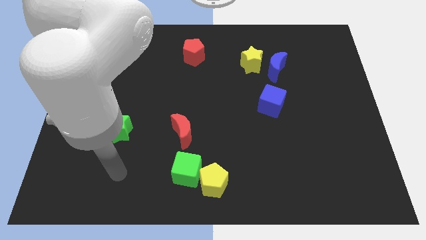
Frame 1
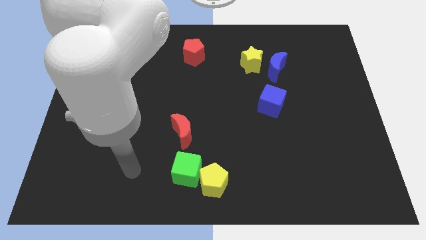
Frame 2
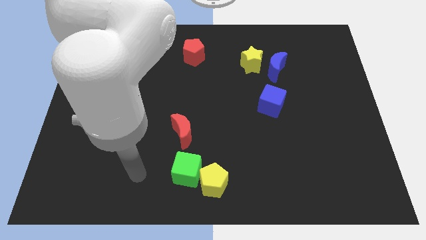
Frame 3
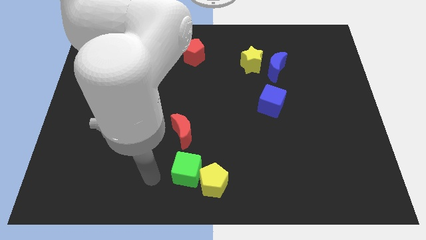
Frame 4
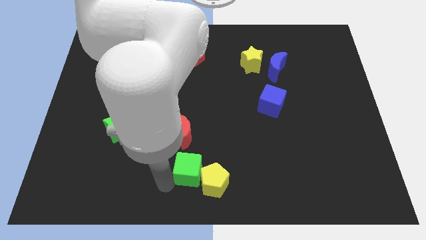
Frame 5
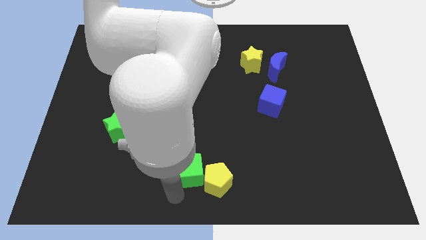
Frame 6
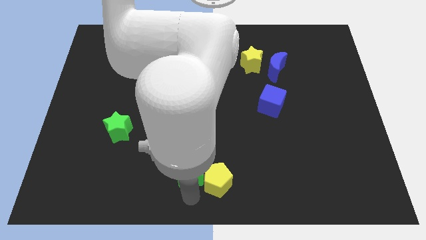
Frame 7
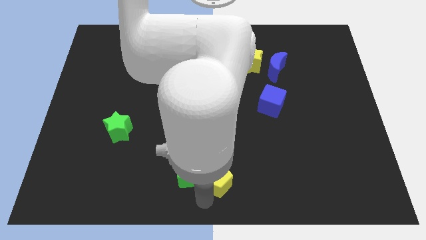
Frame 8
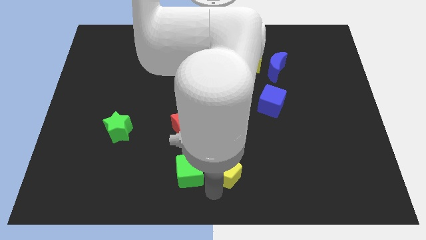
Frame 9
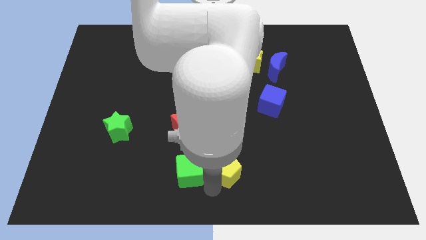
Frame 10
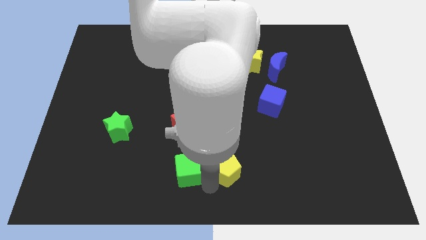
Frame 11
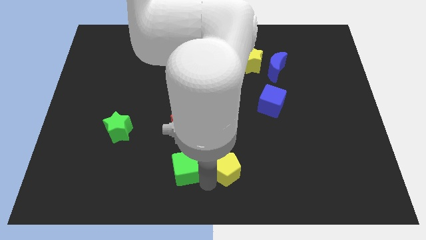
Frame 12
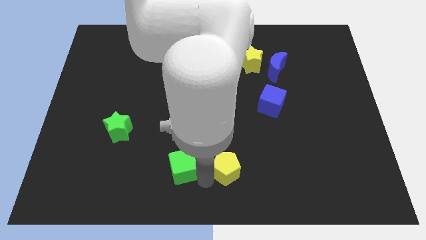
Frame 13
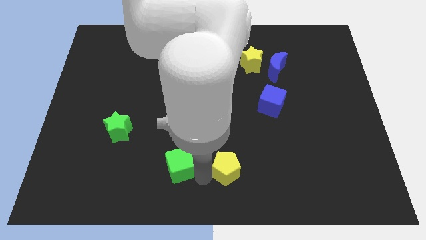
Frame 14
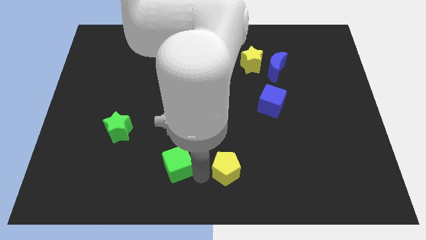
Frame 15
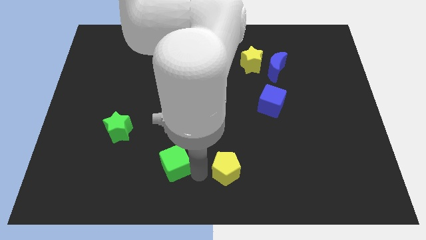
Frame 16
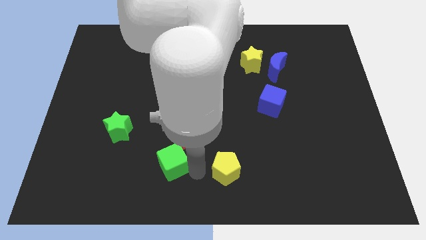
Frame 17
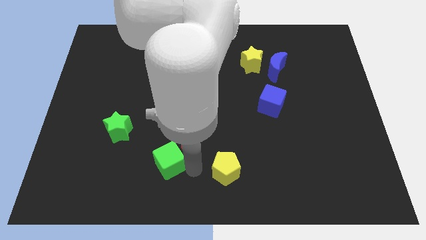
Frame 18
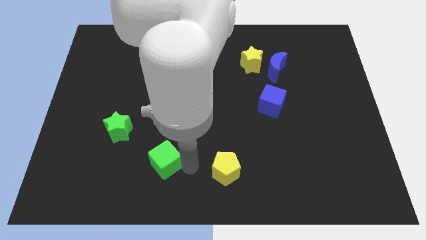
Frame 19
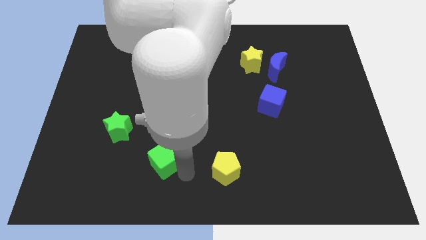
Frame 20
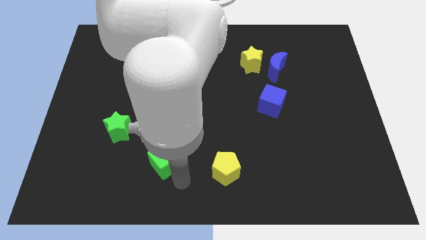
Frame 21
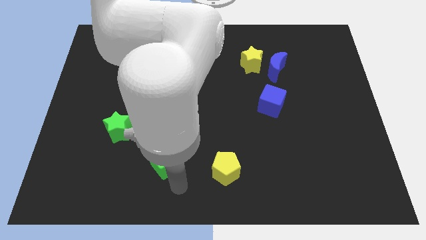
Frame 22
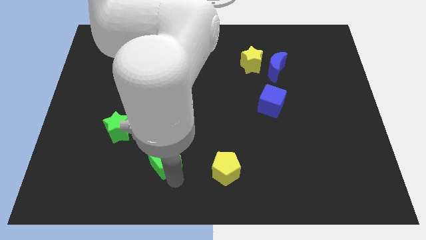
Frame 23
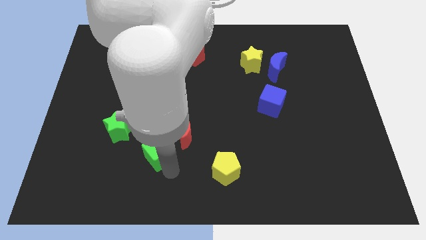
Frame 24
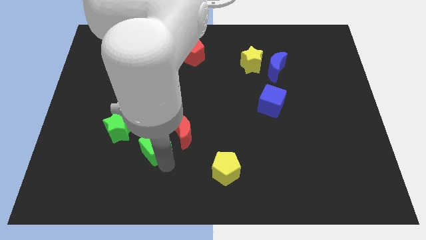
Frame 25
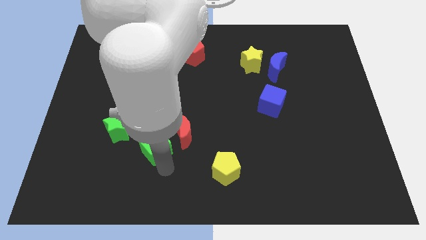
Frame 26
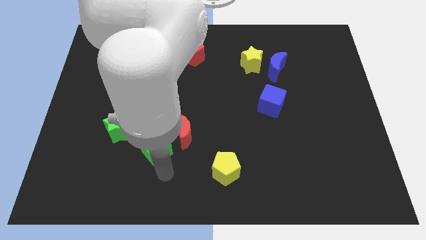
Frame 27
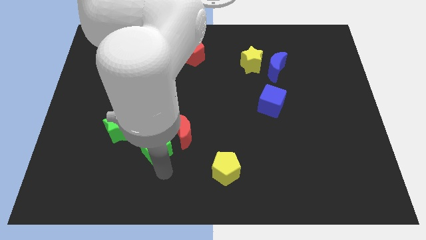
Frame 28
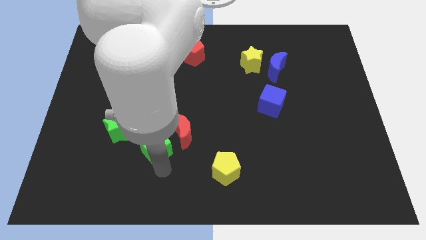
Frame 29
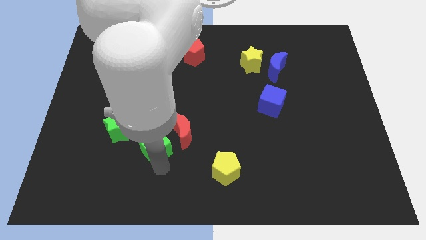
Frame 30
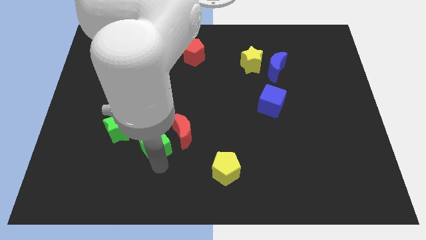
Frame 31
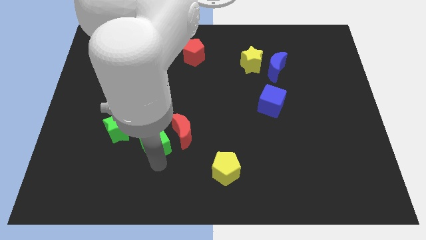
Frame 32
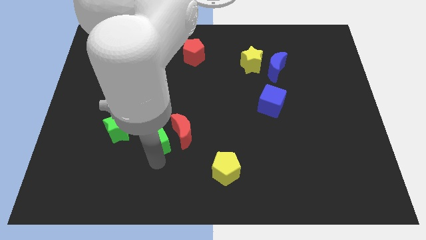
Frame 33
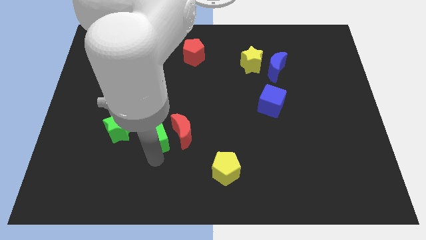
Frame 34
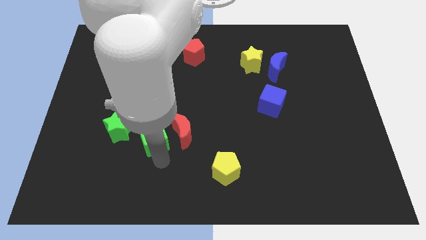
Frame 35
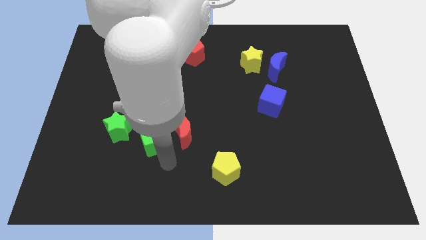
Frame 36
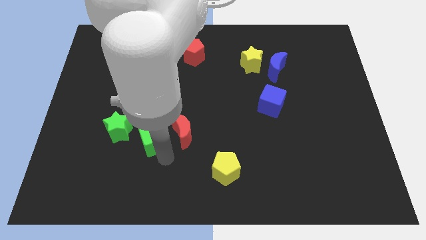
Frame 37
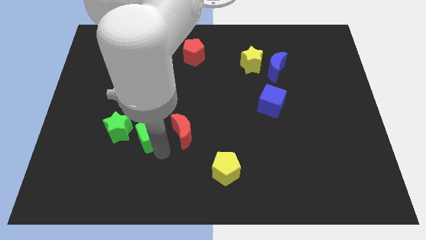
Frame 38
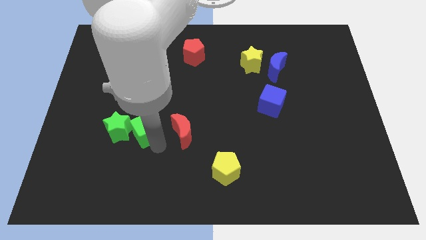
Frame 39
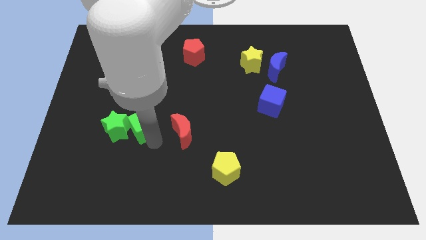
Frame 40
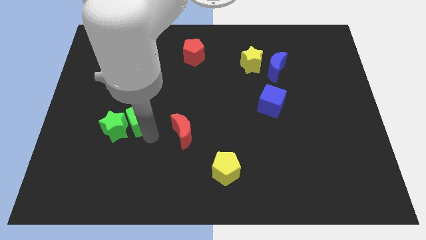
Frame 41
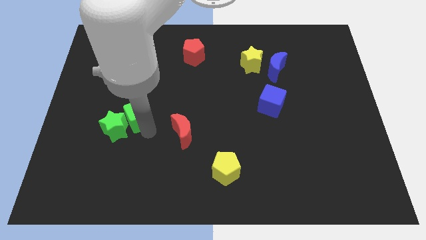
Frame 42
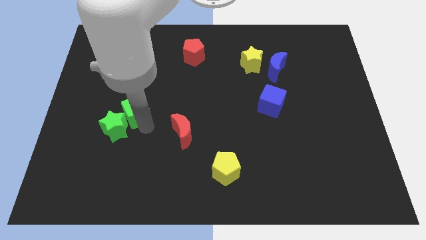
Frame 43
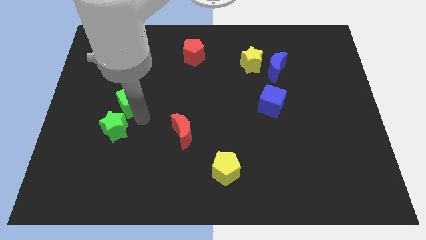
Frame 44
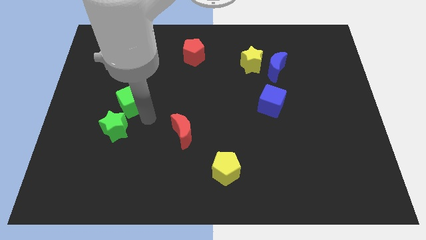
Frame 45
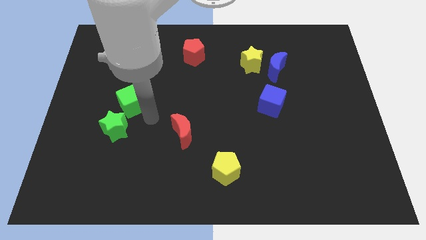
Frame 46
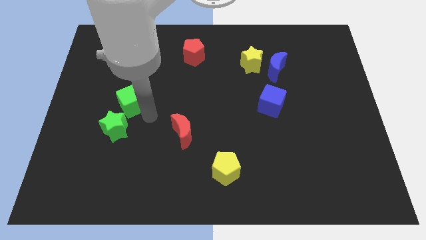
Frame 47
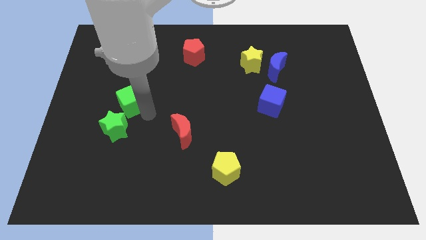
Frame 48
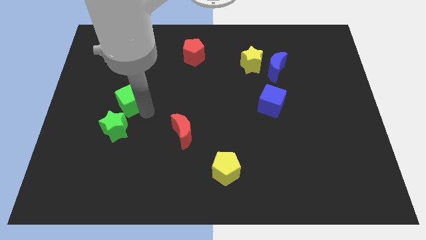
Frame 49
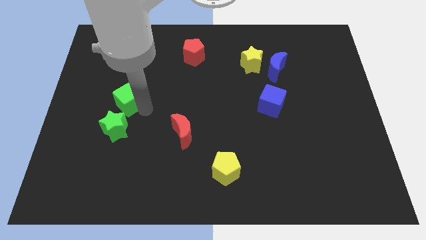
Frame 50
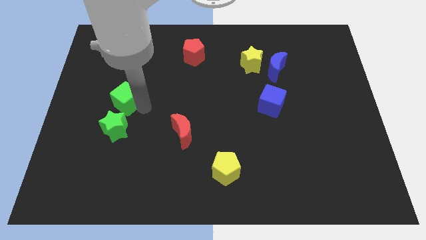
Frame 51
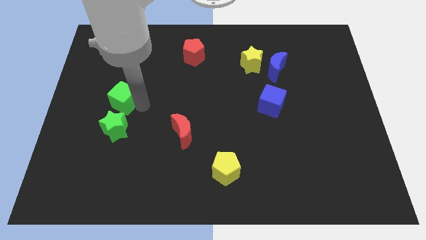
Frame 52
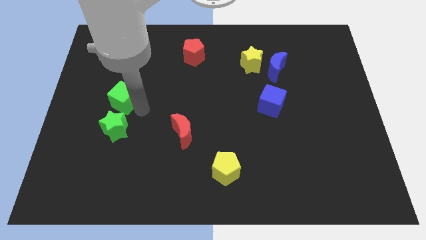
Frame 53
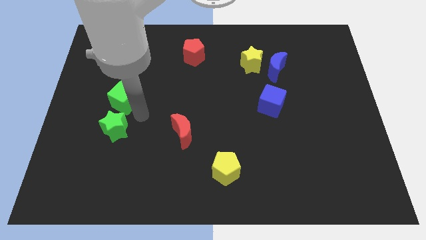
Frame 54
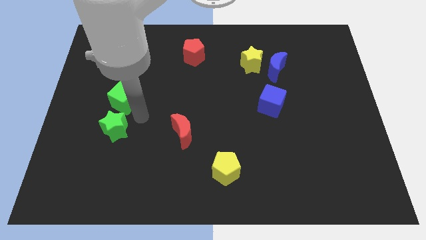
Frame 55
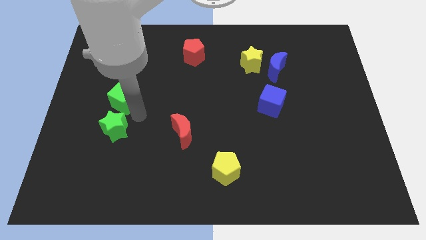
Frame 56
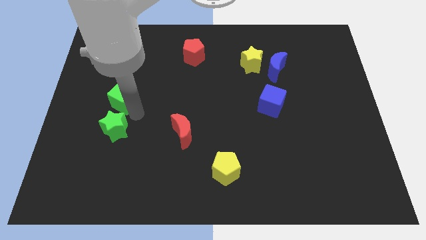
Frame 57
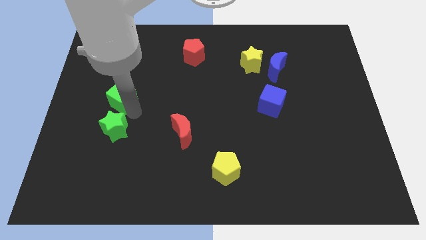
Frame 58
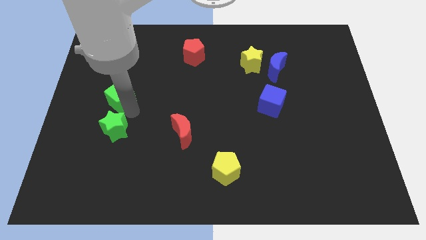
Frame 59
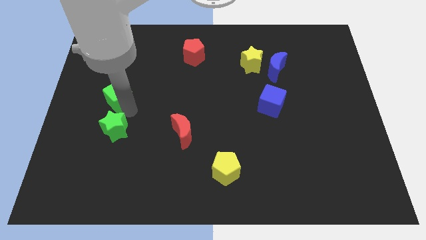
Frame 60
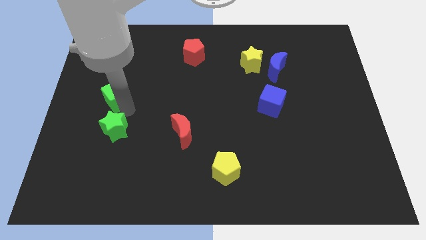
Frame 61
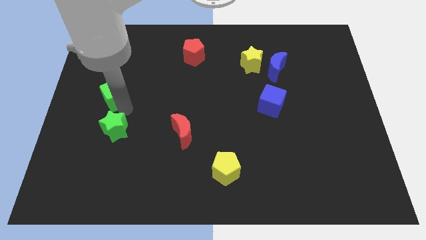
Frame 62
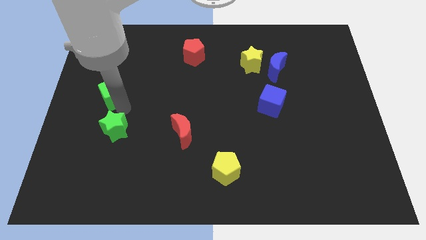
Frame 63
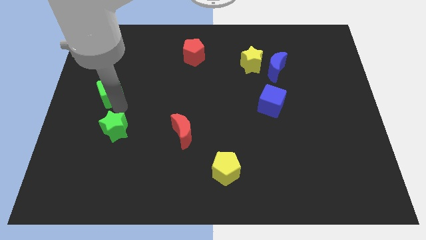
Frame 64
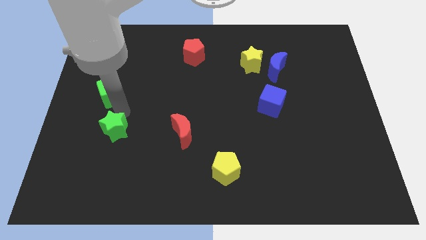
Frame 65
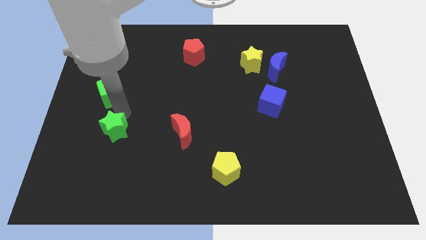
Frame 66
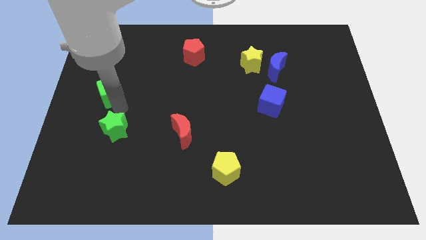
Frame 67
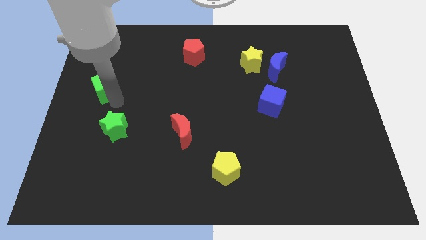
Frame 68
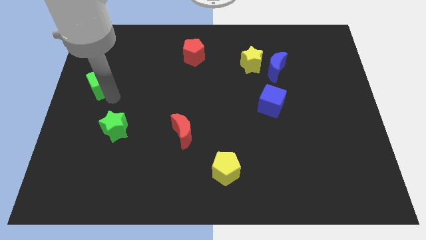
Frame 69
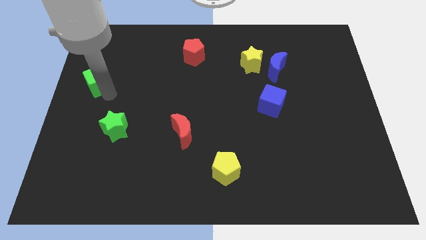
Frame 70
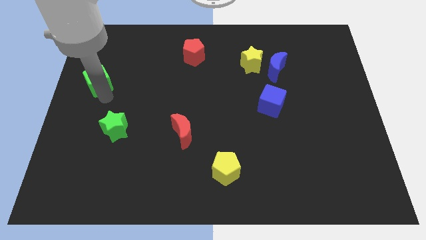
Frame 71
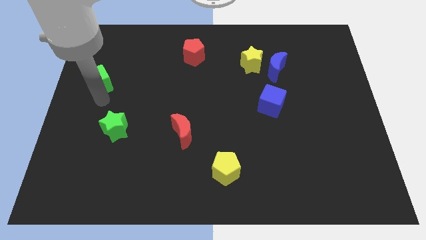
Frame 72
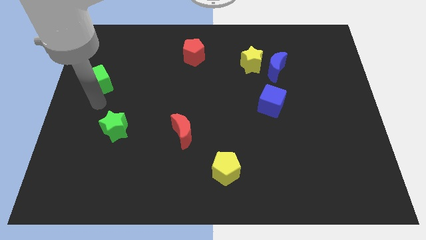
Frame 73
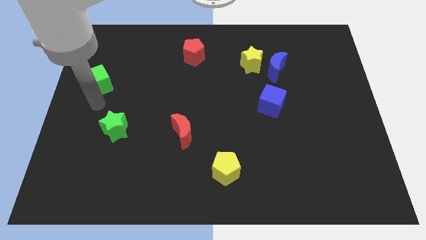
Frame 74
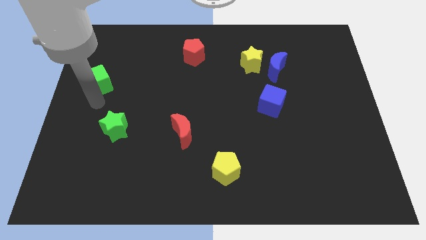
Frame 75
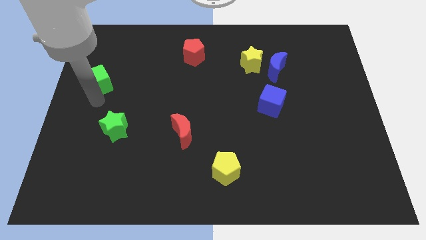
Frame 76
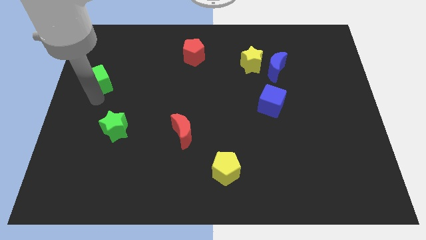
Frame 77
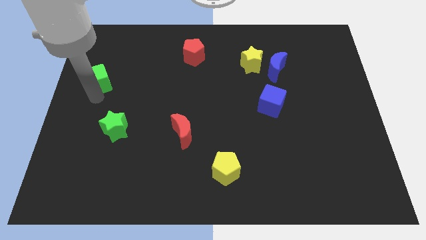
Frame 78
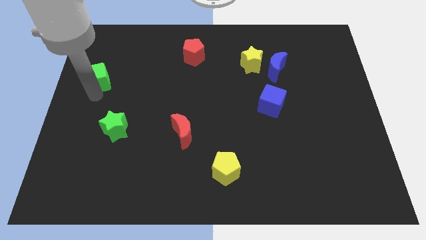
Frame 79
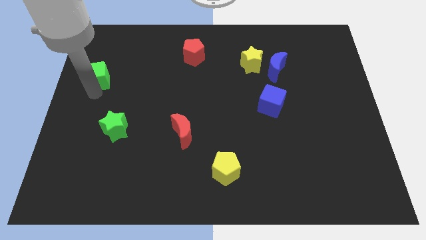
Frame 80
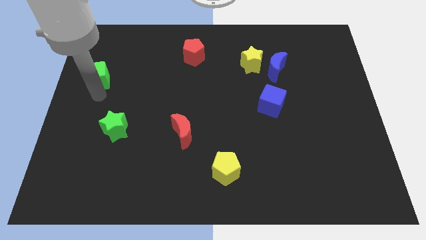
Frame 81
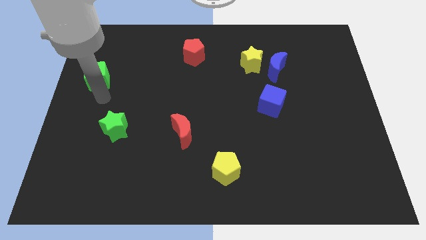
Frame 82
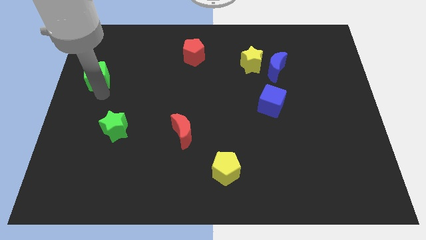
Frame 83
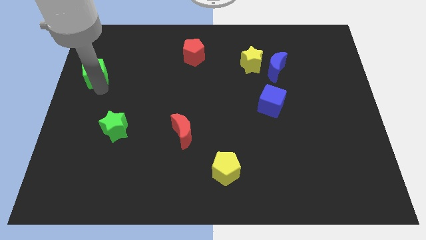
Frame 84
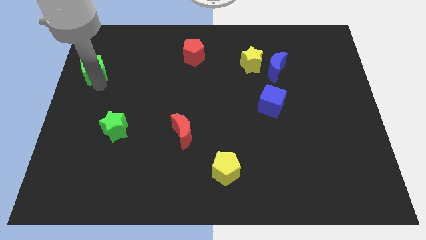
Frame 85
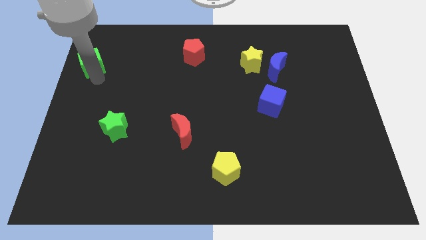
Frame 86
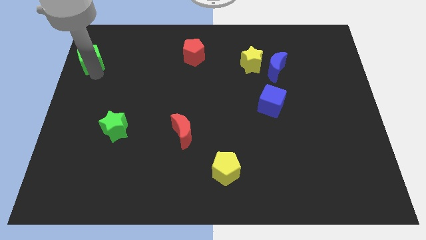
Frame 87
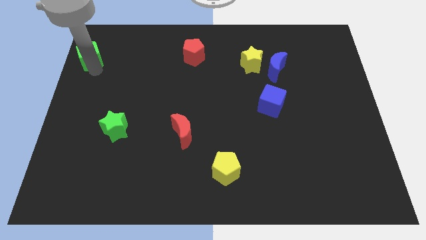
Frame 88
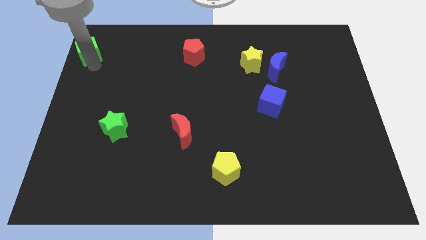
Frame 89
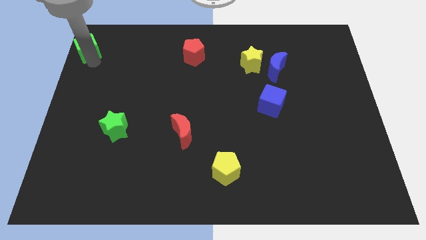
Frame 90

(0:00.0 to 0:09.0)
slide the green cube to the top left corner
